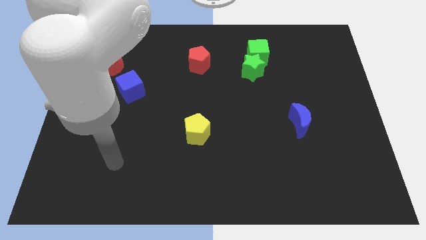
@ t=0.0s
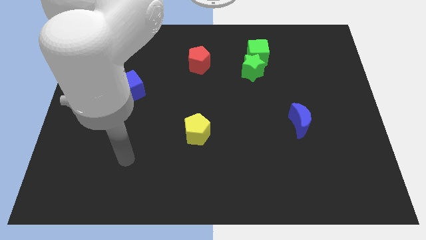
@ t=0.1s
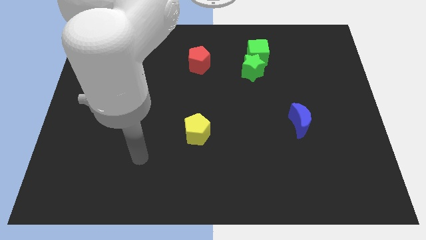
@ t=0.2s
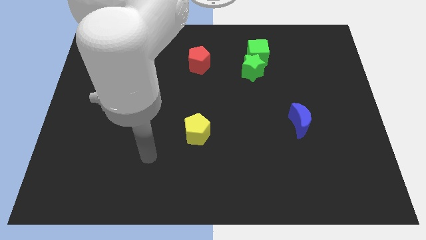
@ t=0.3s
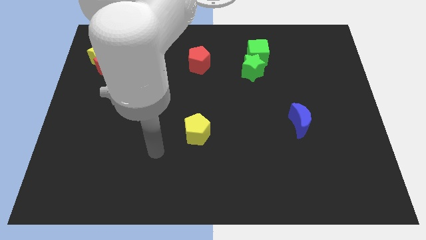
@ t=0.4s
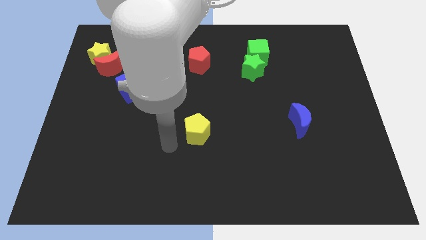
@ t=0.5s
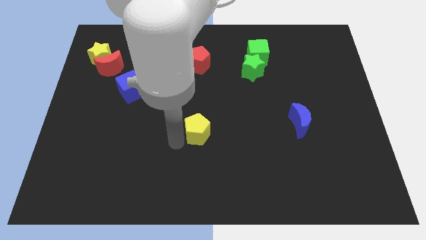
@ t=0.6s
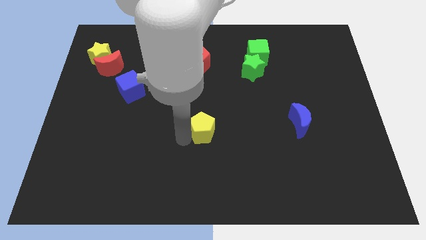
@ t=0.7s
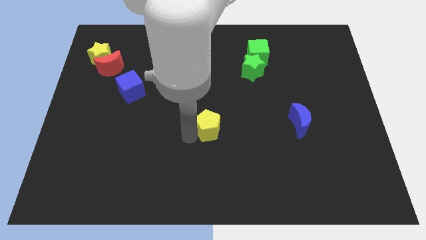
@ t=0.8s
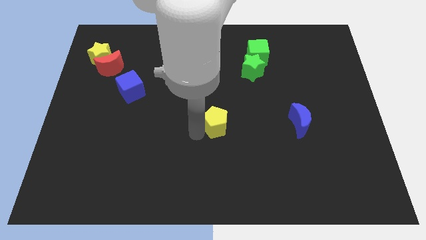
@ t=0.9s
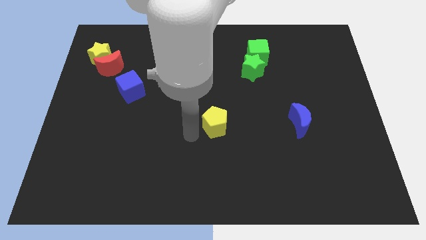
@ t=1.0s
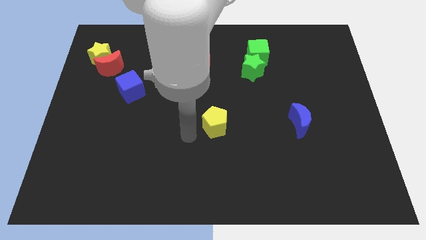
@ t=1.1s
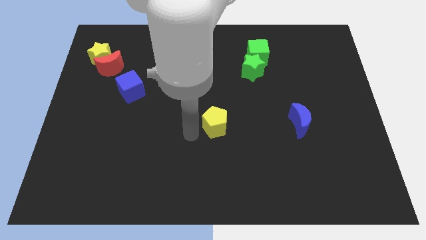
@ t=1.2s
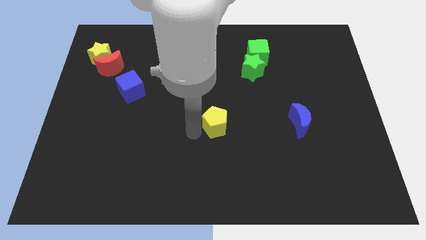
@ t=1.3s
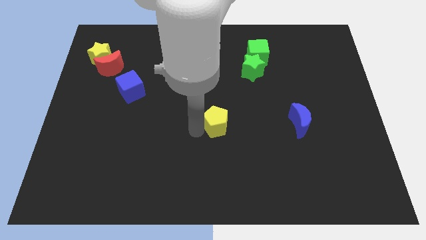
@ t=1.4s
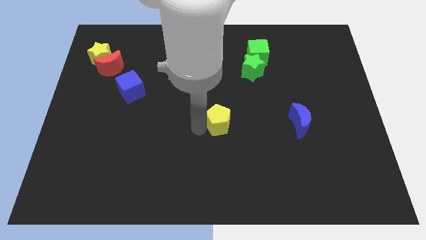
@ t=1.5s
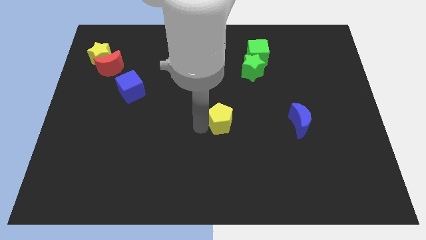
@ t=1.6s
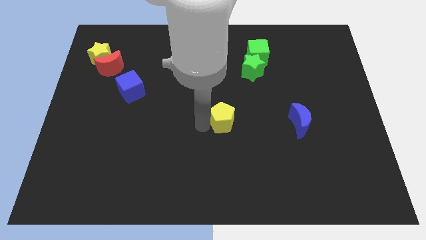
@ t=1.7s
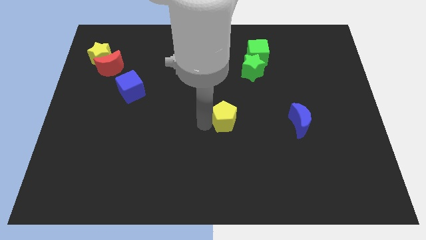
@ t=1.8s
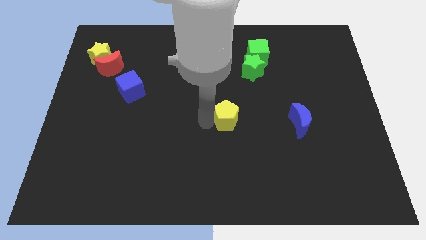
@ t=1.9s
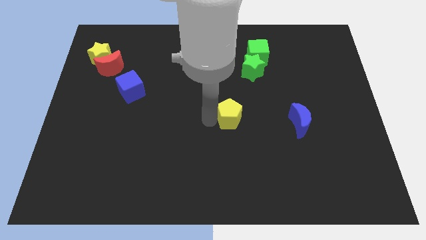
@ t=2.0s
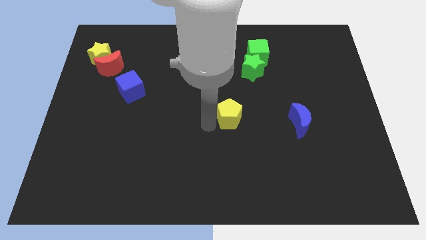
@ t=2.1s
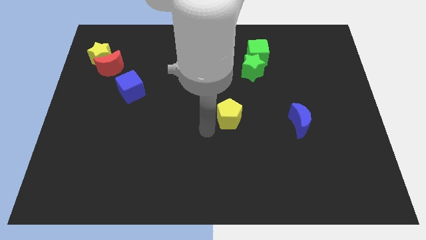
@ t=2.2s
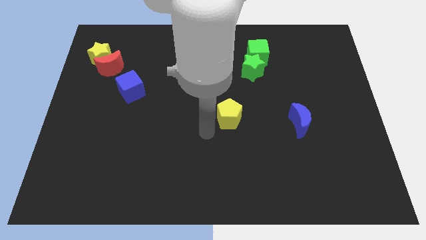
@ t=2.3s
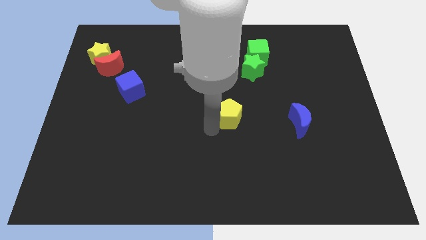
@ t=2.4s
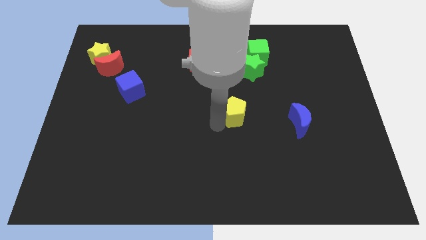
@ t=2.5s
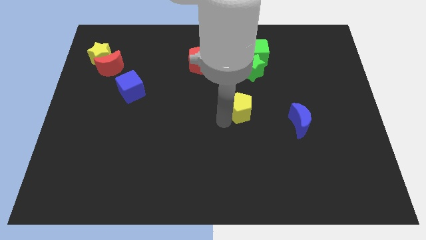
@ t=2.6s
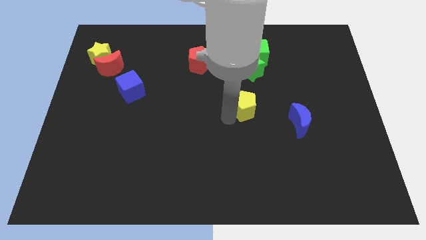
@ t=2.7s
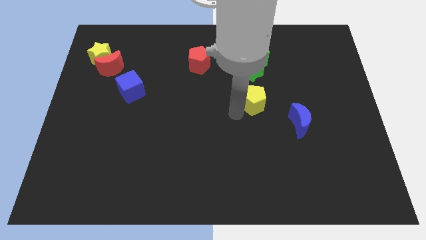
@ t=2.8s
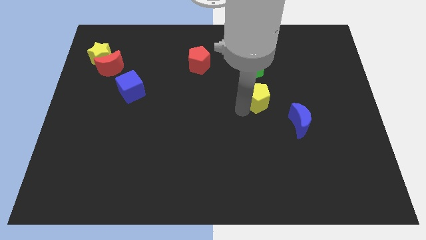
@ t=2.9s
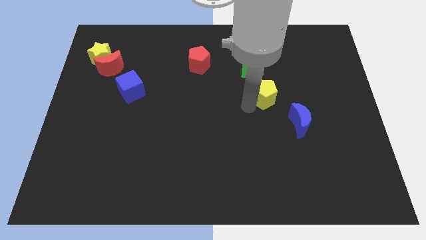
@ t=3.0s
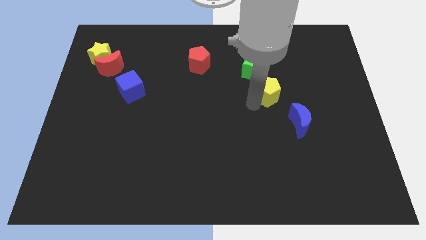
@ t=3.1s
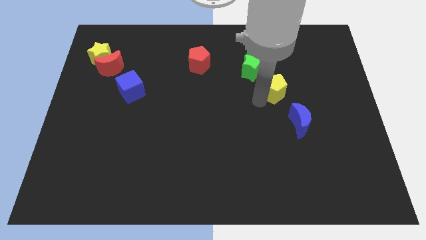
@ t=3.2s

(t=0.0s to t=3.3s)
push the yellow pentagon up and right

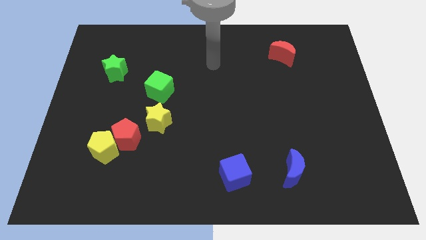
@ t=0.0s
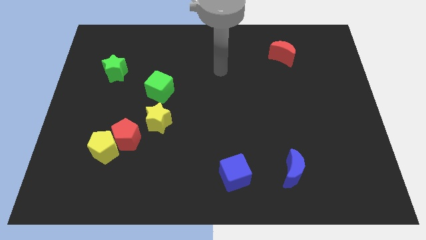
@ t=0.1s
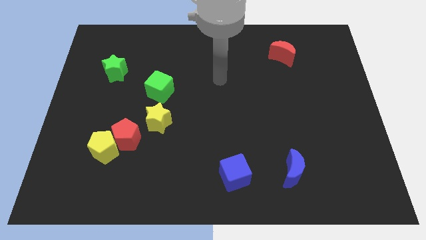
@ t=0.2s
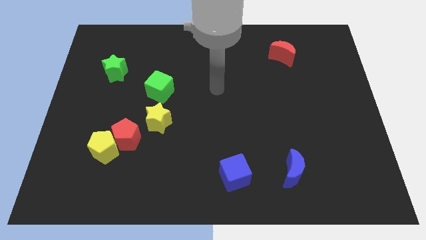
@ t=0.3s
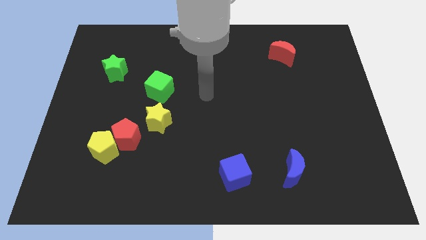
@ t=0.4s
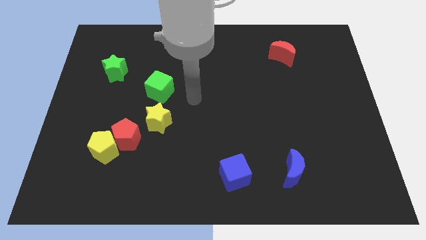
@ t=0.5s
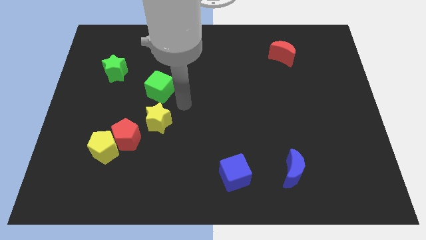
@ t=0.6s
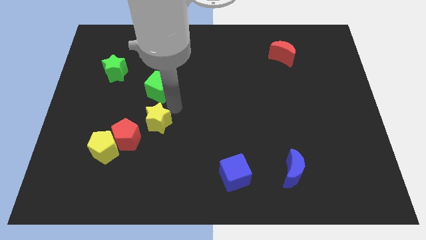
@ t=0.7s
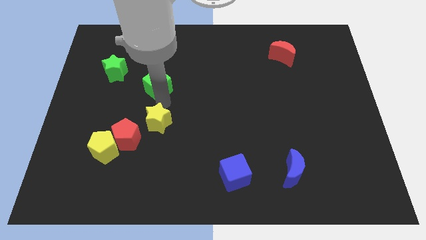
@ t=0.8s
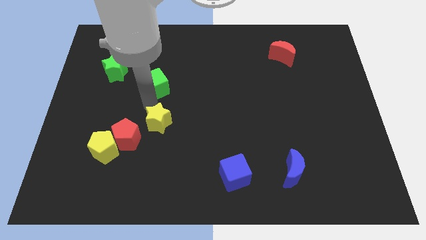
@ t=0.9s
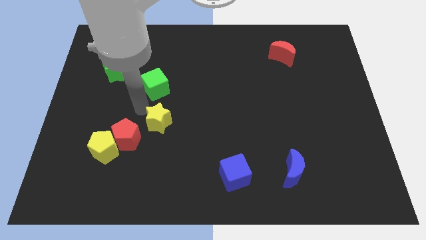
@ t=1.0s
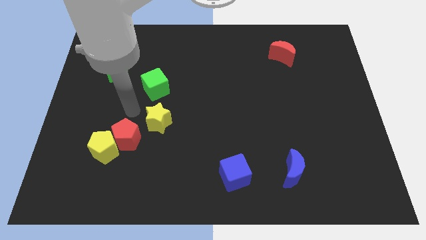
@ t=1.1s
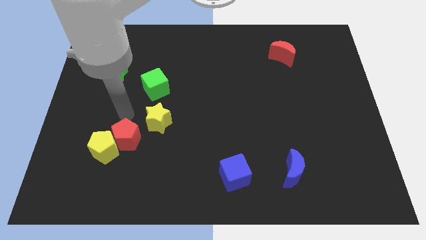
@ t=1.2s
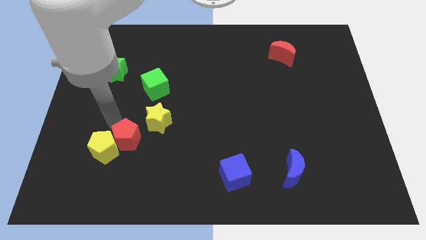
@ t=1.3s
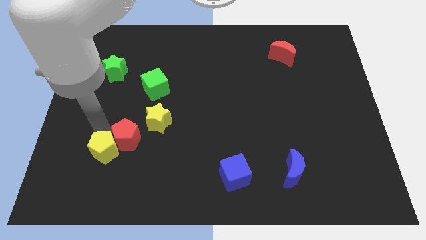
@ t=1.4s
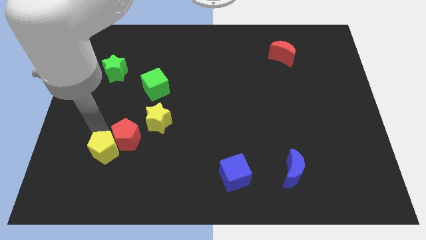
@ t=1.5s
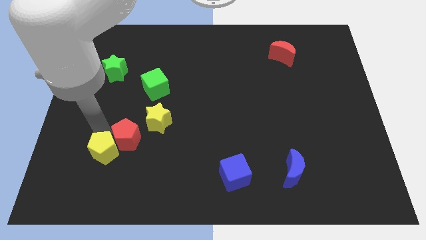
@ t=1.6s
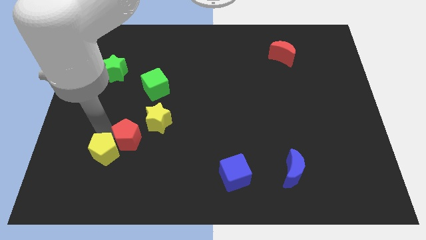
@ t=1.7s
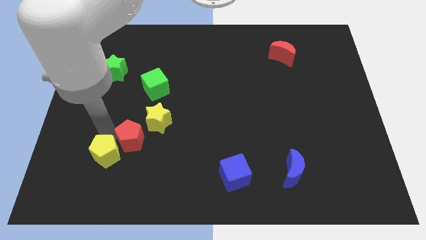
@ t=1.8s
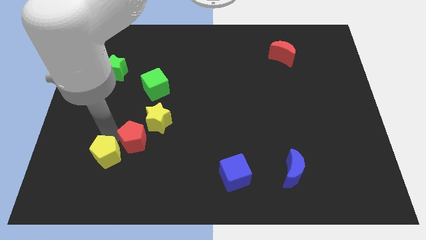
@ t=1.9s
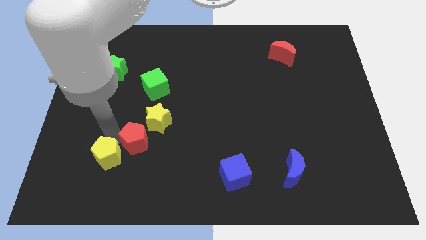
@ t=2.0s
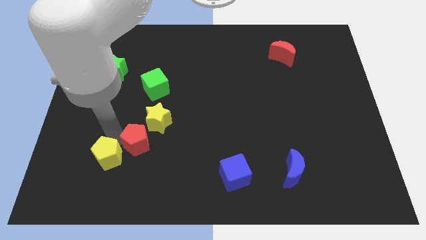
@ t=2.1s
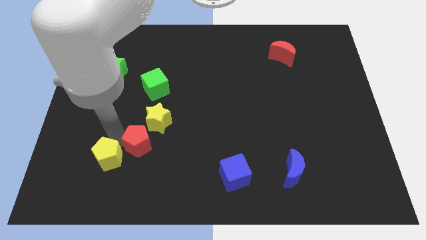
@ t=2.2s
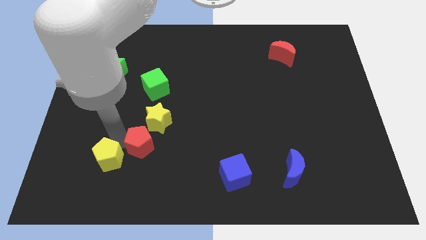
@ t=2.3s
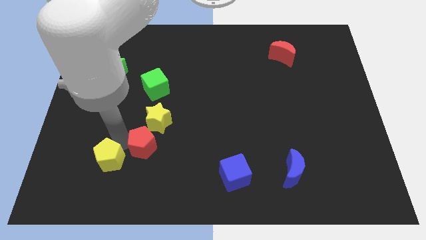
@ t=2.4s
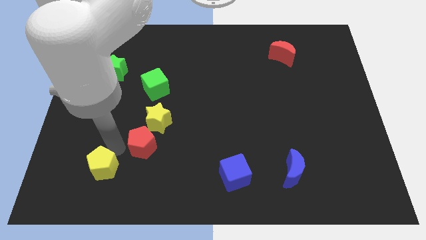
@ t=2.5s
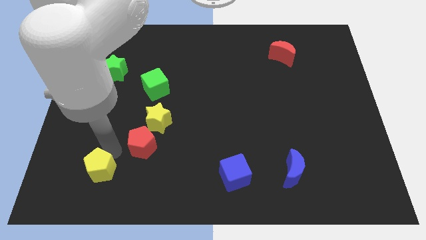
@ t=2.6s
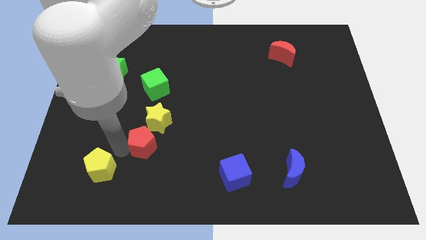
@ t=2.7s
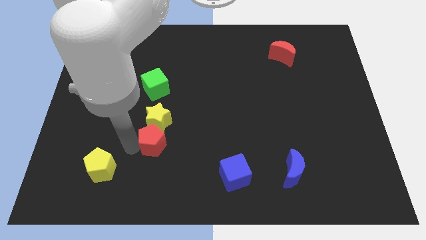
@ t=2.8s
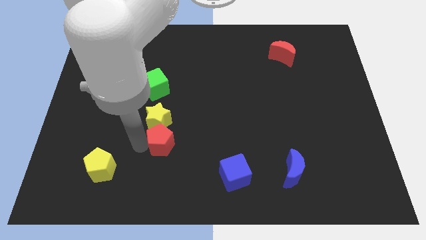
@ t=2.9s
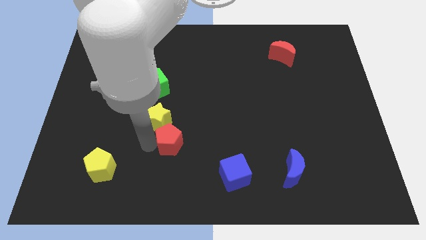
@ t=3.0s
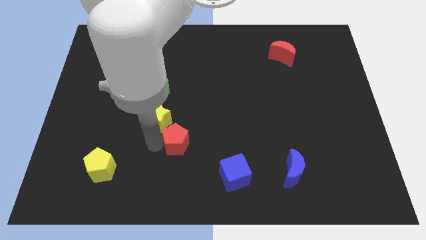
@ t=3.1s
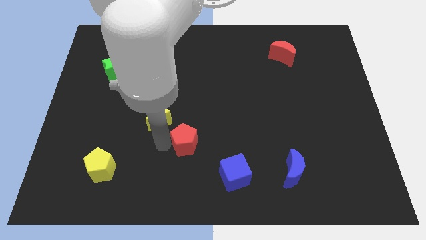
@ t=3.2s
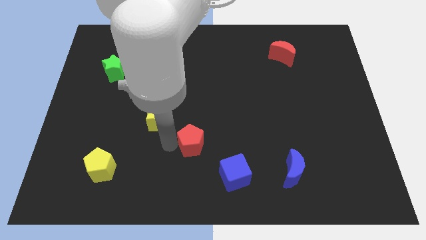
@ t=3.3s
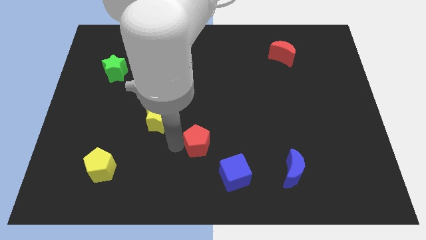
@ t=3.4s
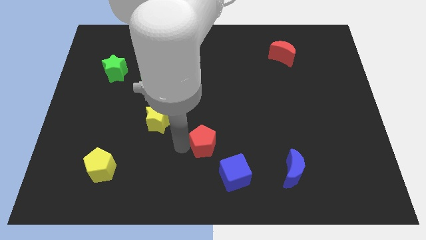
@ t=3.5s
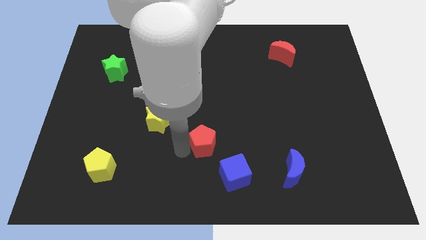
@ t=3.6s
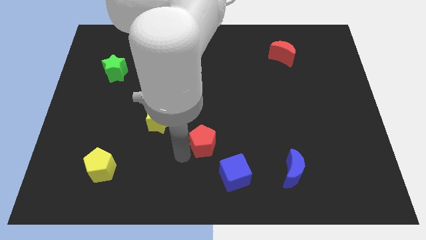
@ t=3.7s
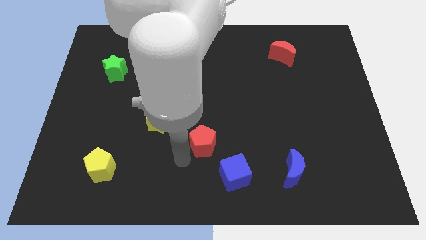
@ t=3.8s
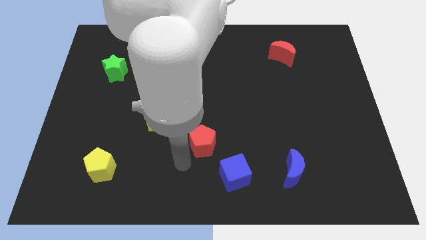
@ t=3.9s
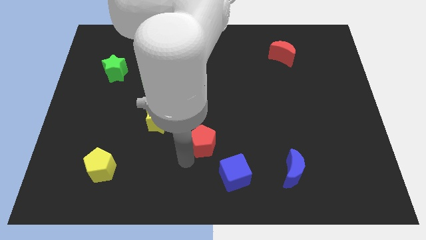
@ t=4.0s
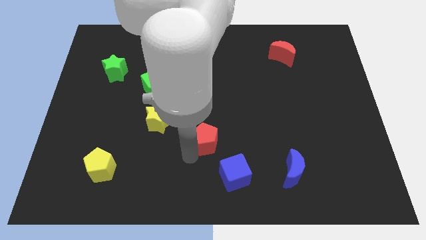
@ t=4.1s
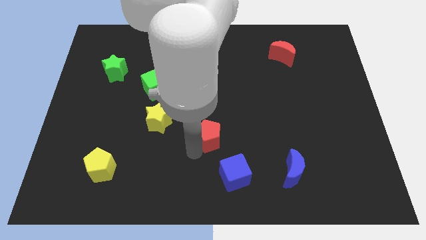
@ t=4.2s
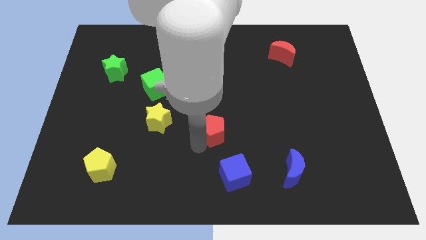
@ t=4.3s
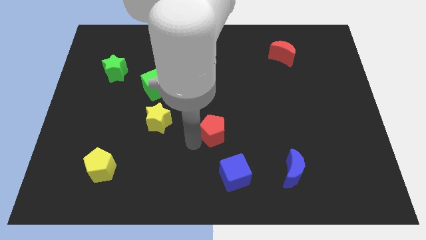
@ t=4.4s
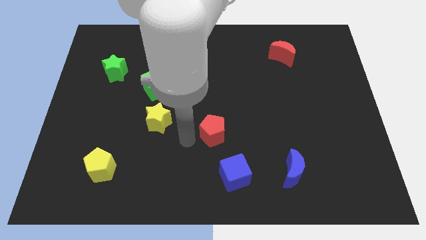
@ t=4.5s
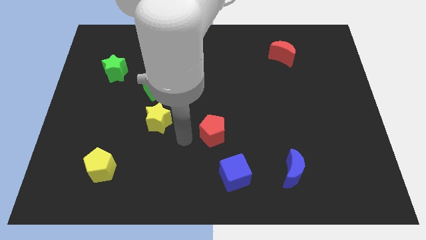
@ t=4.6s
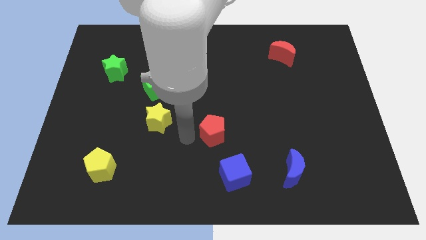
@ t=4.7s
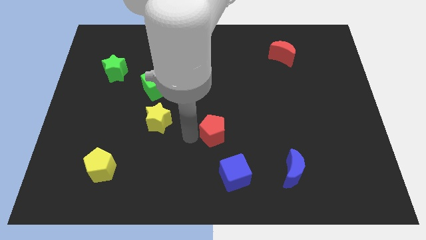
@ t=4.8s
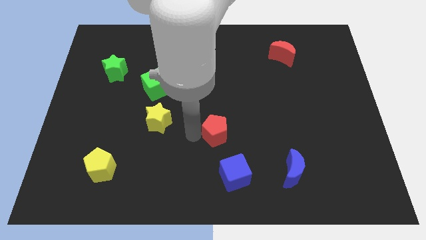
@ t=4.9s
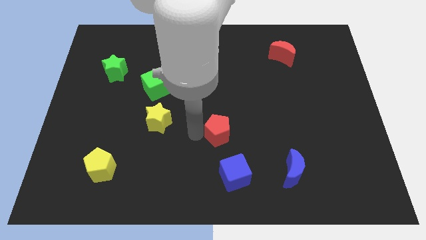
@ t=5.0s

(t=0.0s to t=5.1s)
push the red pentagon right
